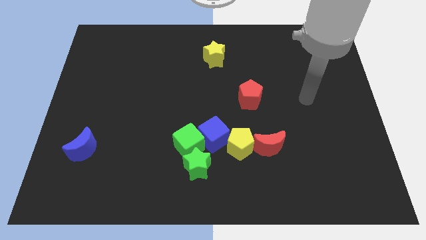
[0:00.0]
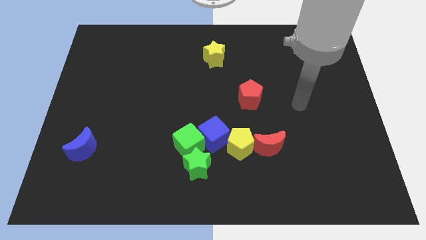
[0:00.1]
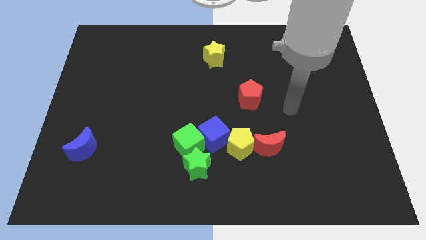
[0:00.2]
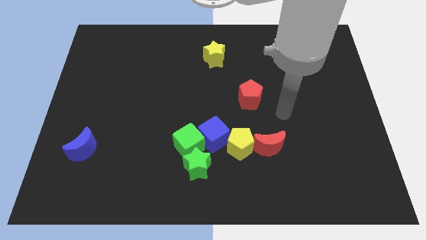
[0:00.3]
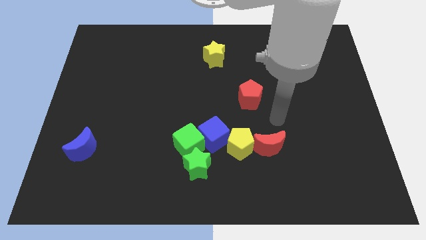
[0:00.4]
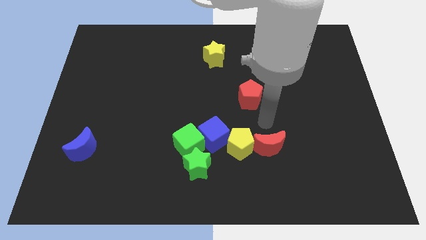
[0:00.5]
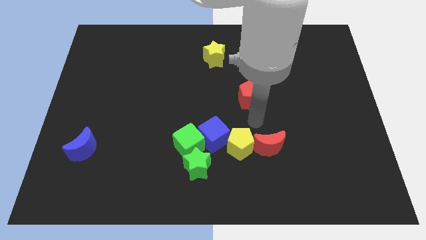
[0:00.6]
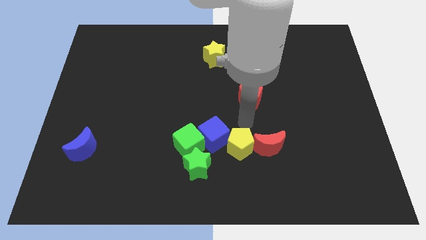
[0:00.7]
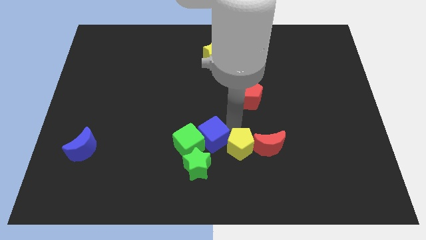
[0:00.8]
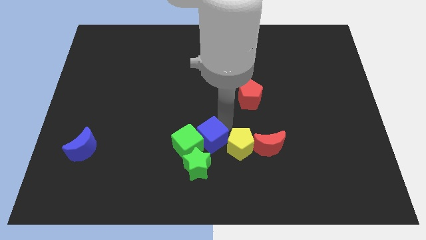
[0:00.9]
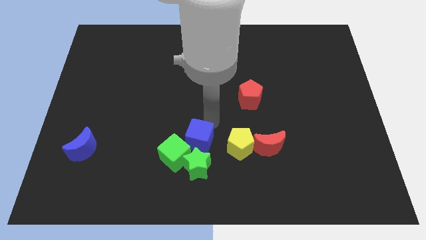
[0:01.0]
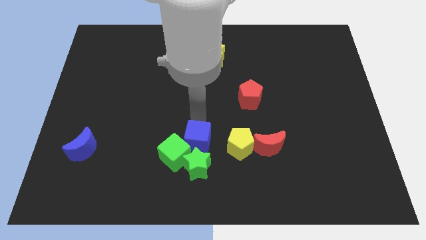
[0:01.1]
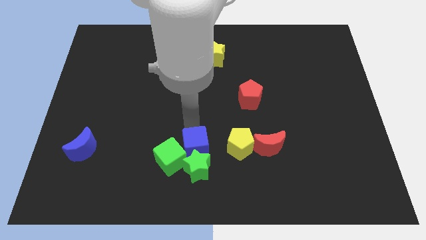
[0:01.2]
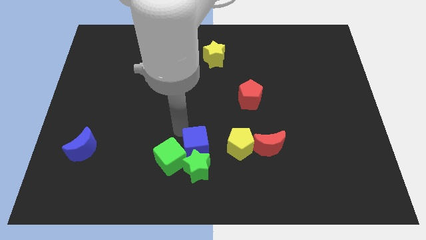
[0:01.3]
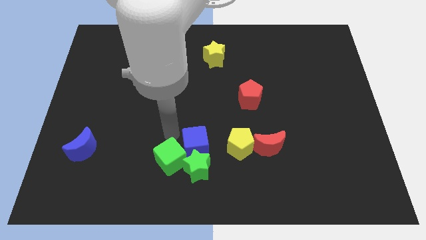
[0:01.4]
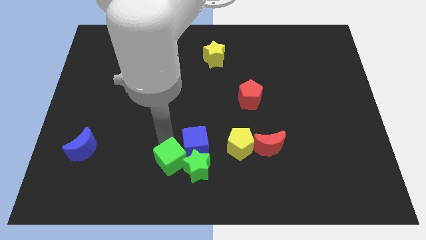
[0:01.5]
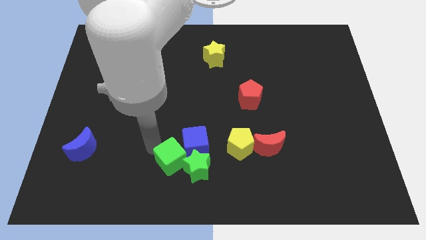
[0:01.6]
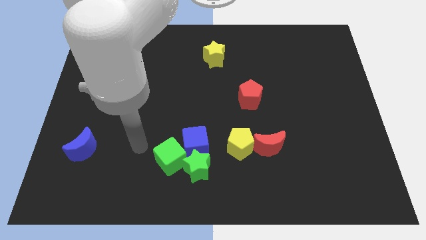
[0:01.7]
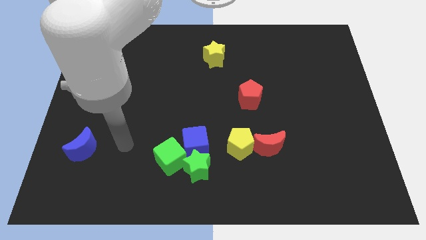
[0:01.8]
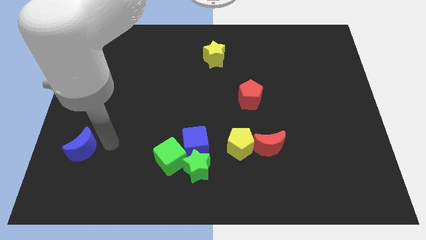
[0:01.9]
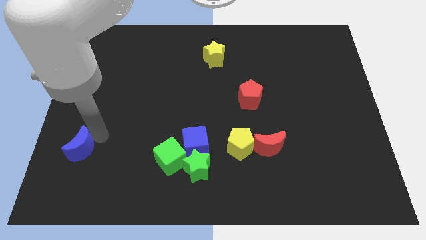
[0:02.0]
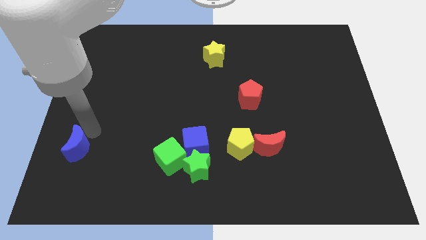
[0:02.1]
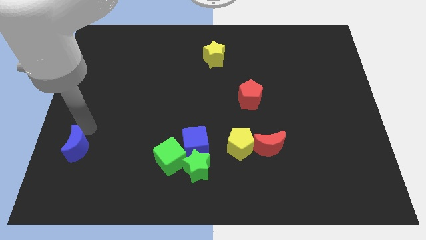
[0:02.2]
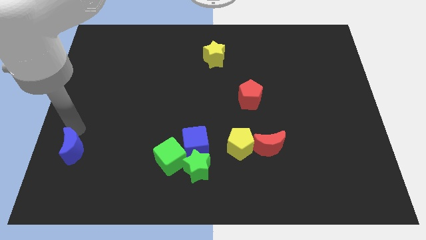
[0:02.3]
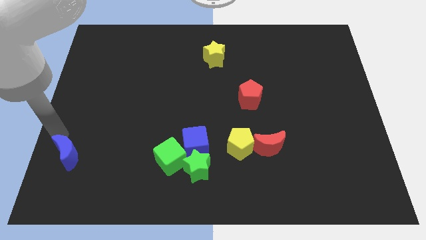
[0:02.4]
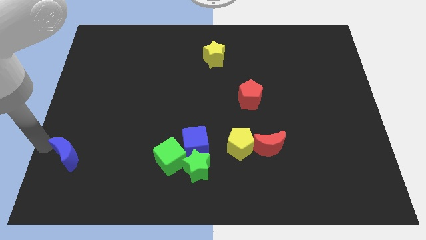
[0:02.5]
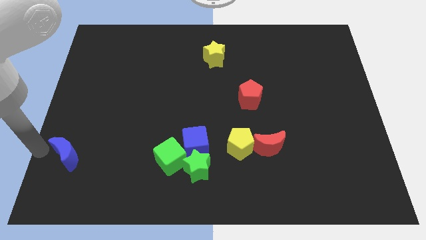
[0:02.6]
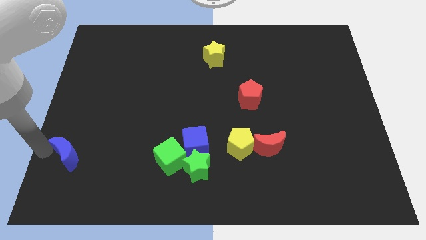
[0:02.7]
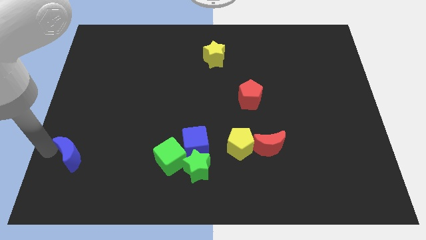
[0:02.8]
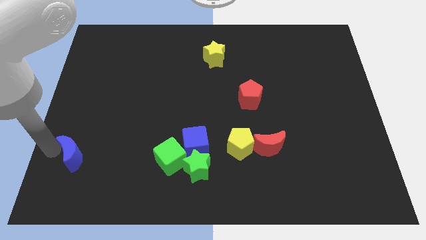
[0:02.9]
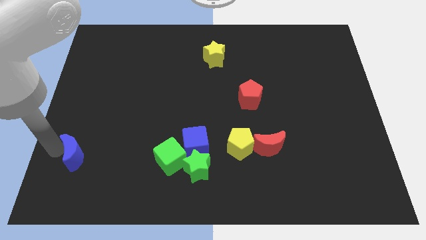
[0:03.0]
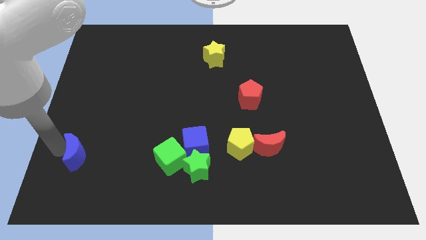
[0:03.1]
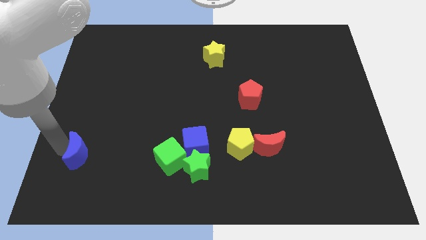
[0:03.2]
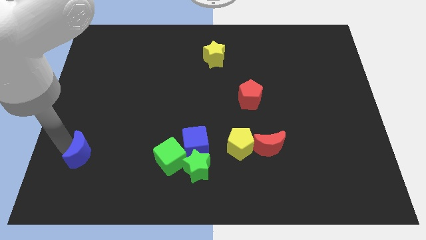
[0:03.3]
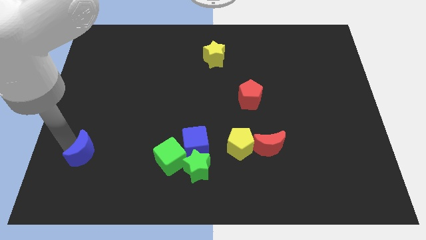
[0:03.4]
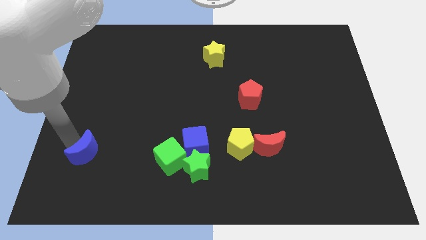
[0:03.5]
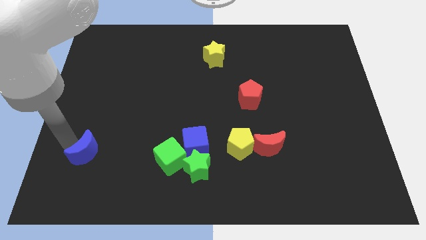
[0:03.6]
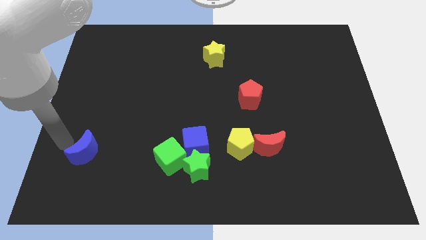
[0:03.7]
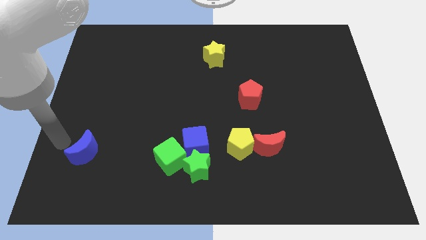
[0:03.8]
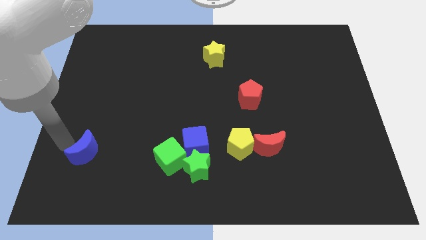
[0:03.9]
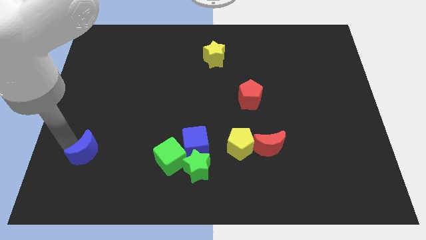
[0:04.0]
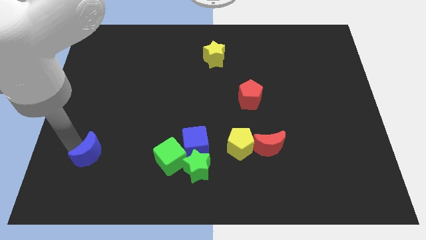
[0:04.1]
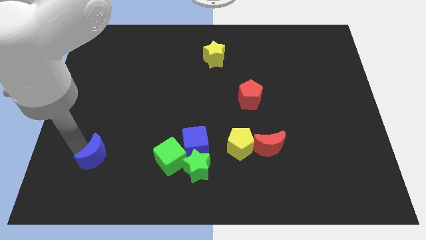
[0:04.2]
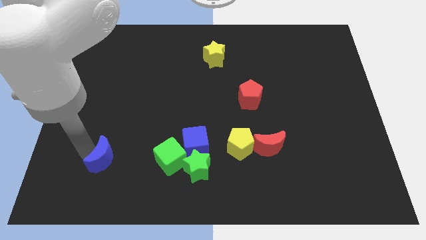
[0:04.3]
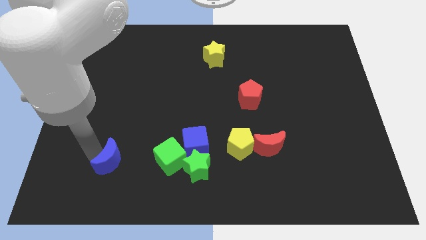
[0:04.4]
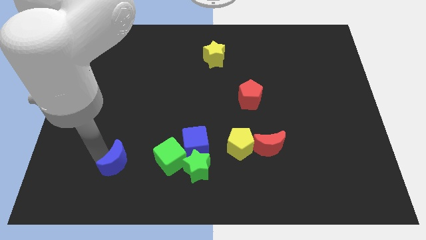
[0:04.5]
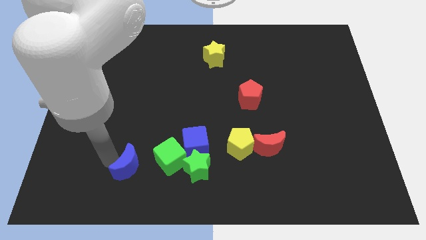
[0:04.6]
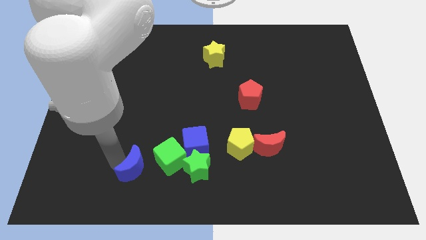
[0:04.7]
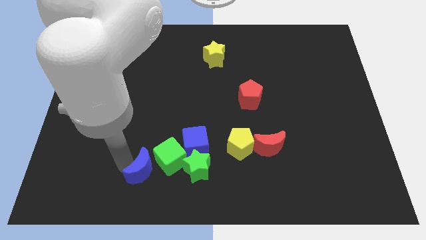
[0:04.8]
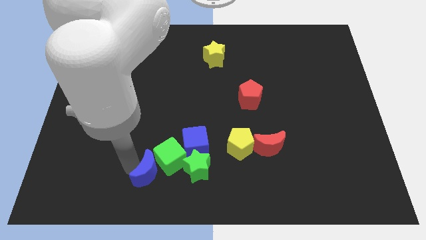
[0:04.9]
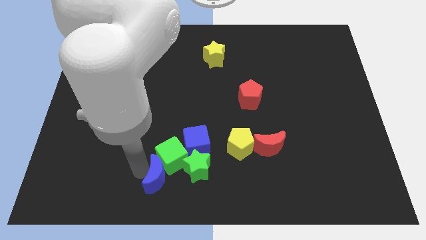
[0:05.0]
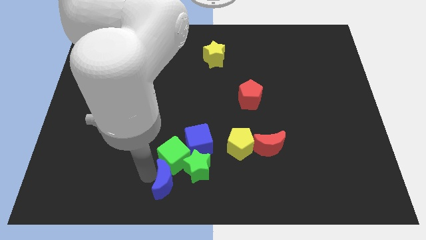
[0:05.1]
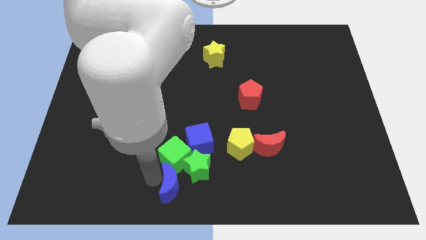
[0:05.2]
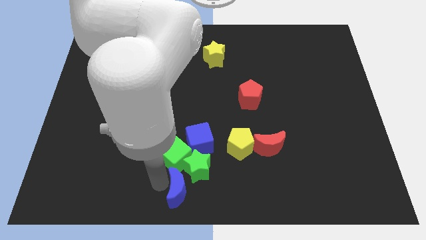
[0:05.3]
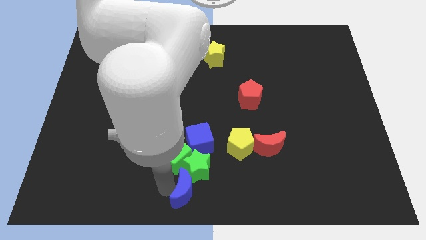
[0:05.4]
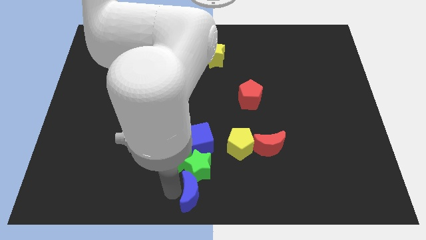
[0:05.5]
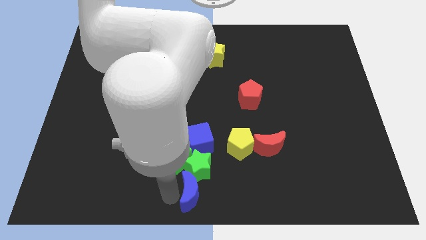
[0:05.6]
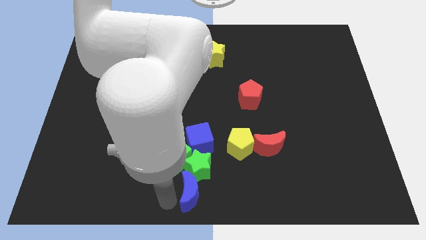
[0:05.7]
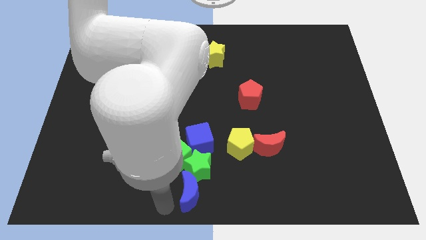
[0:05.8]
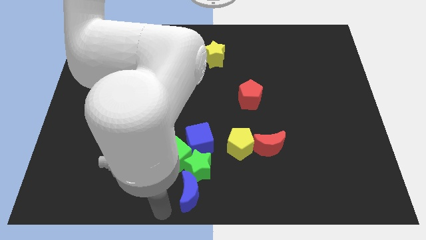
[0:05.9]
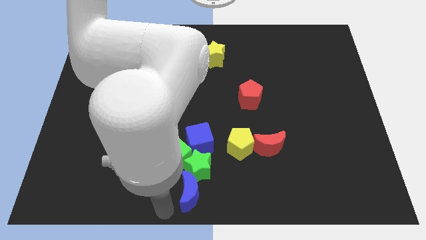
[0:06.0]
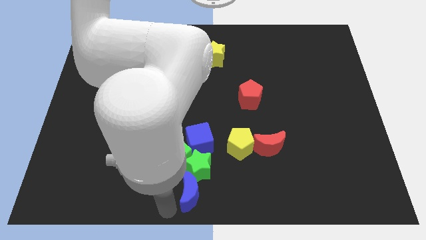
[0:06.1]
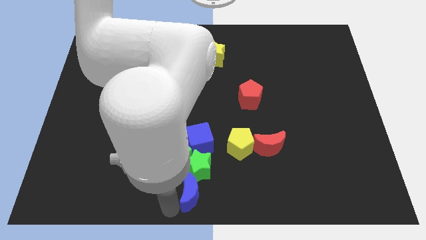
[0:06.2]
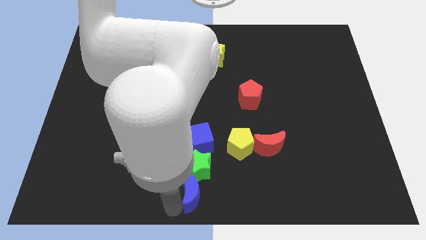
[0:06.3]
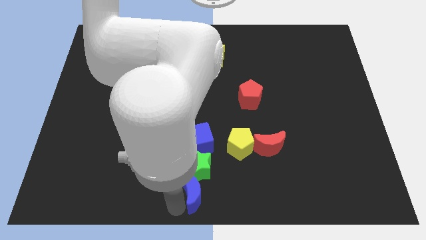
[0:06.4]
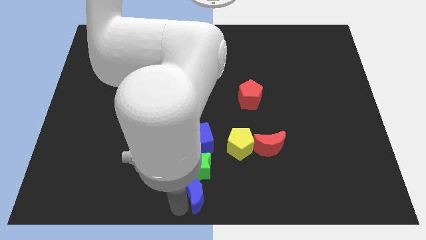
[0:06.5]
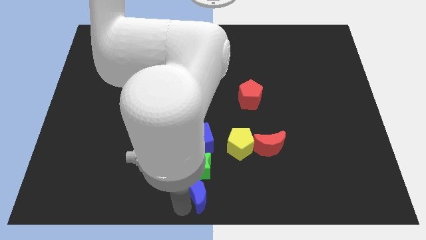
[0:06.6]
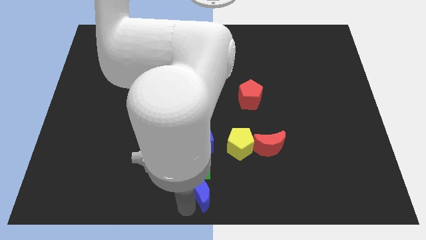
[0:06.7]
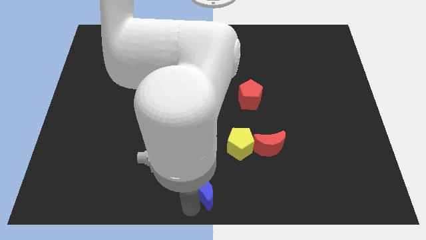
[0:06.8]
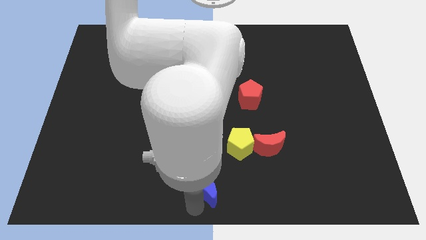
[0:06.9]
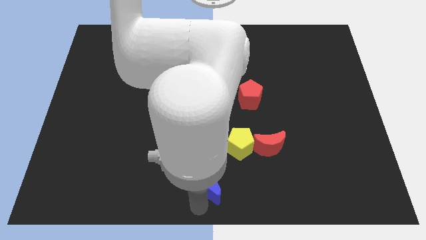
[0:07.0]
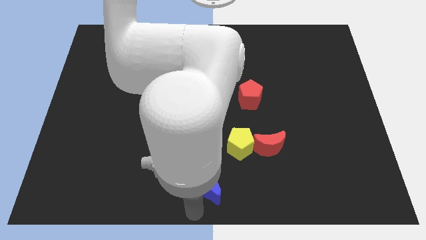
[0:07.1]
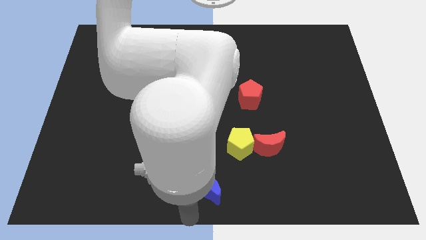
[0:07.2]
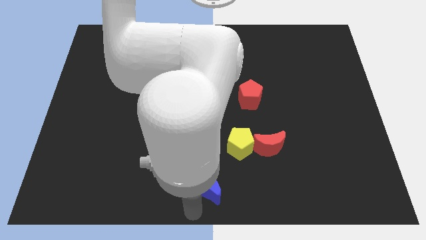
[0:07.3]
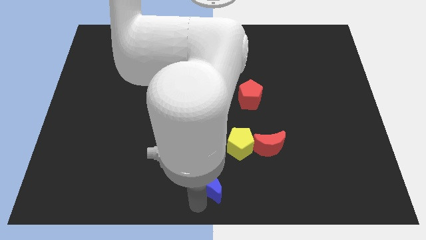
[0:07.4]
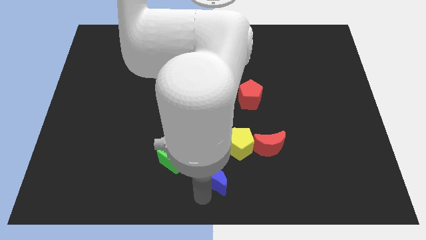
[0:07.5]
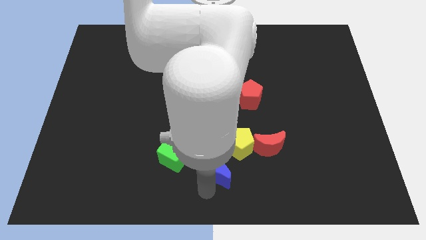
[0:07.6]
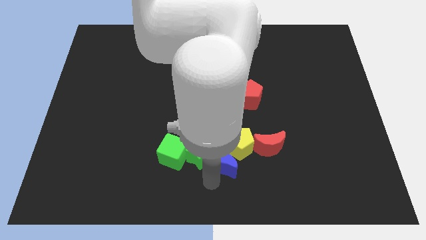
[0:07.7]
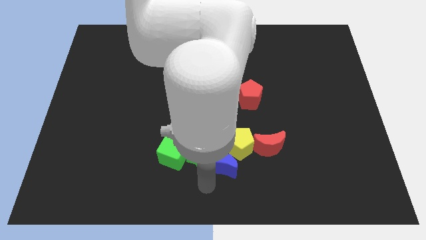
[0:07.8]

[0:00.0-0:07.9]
slide the blue moon towards the yellow pentagon
